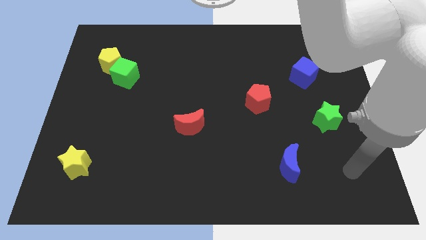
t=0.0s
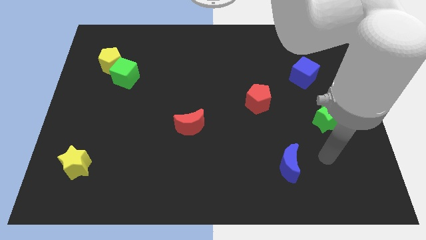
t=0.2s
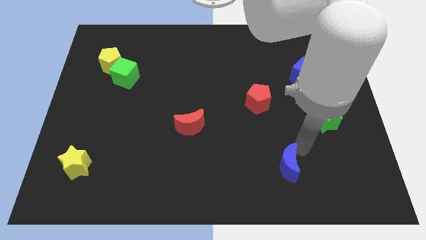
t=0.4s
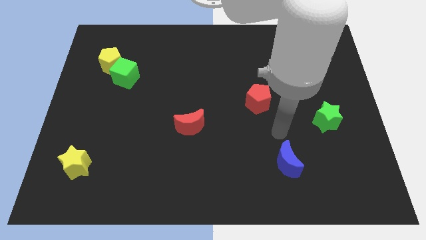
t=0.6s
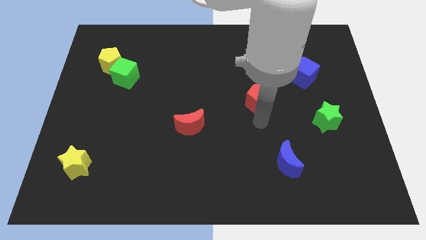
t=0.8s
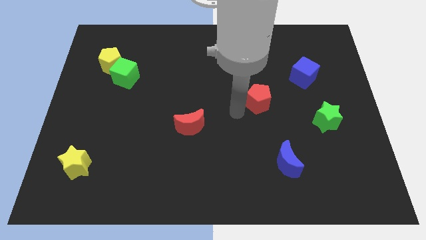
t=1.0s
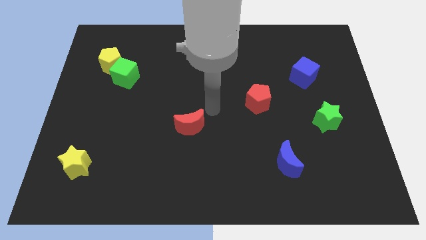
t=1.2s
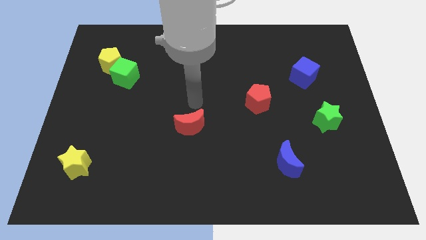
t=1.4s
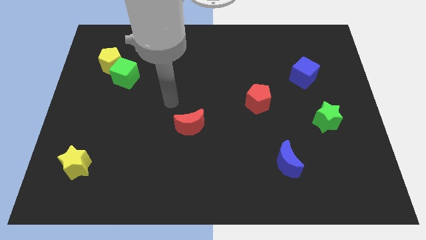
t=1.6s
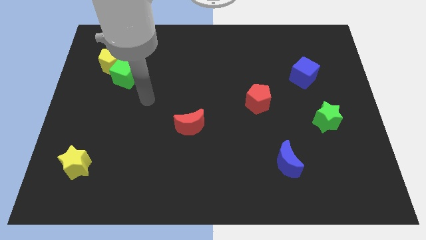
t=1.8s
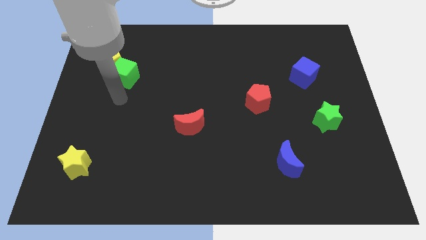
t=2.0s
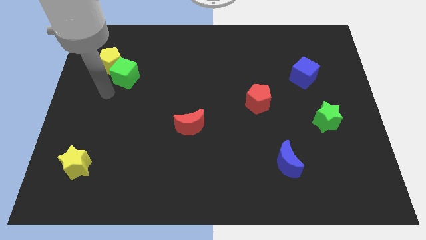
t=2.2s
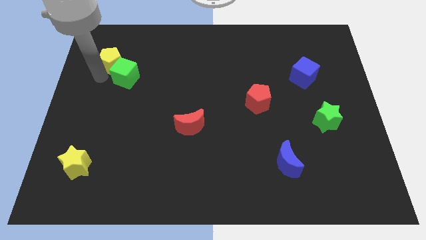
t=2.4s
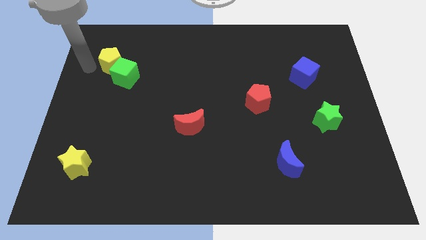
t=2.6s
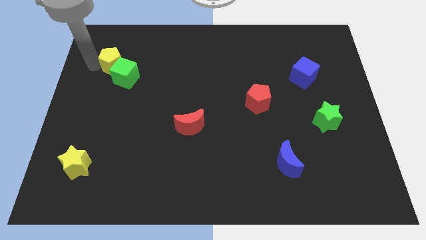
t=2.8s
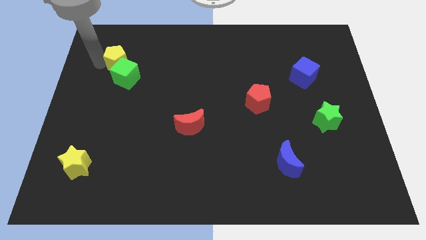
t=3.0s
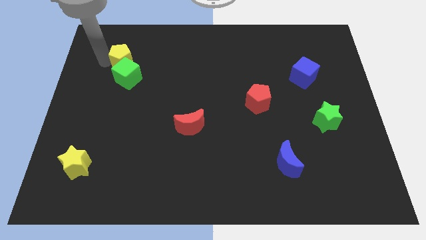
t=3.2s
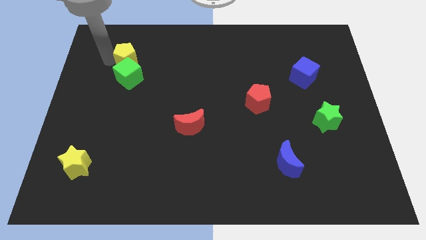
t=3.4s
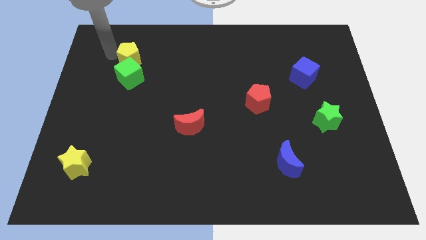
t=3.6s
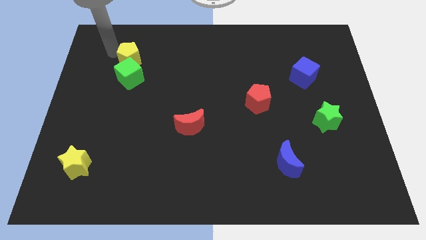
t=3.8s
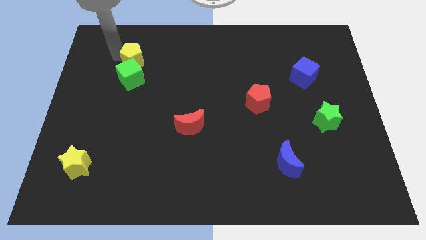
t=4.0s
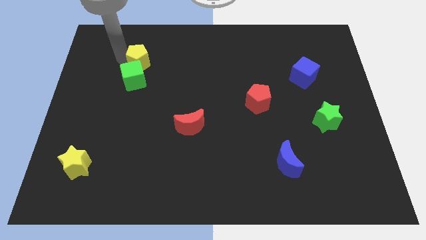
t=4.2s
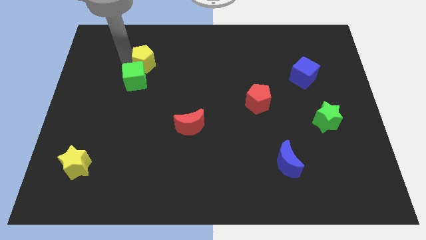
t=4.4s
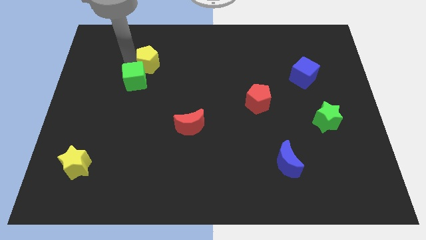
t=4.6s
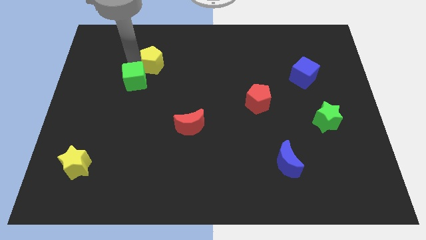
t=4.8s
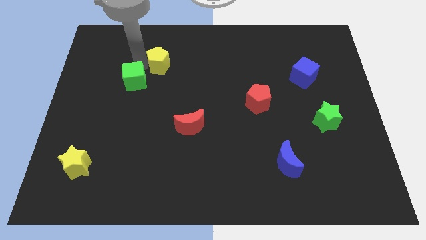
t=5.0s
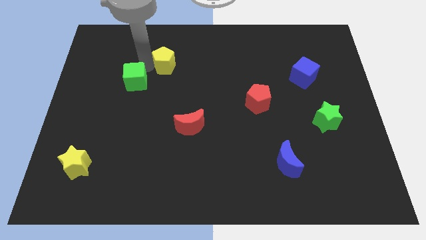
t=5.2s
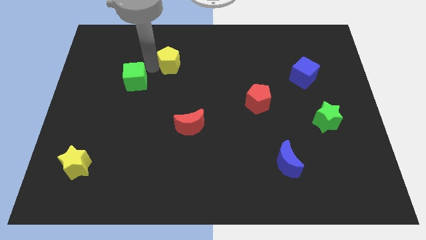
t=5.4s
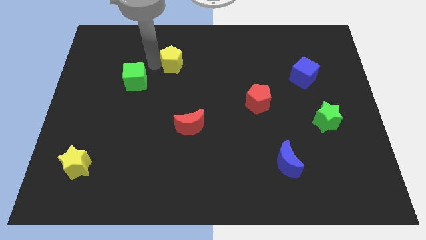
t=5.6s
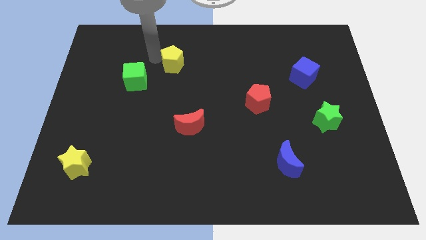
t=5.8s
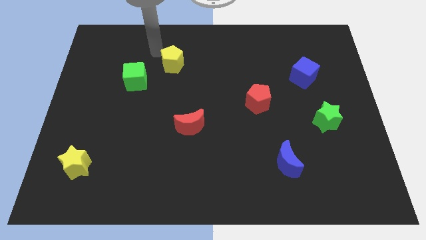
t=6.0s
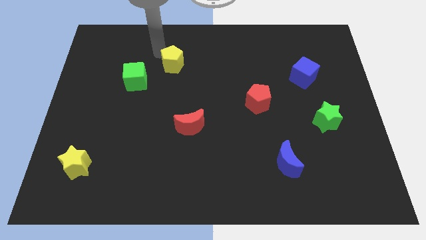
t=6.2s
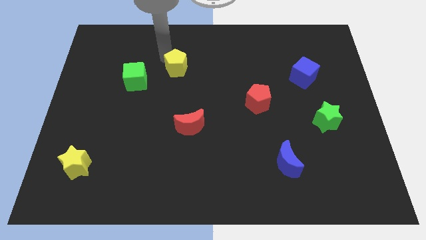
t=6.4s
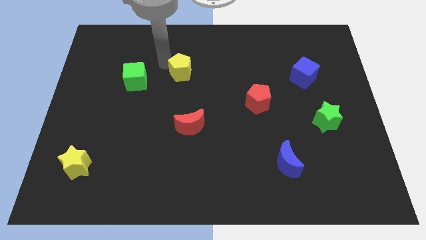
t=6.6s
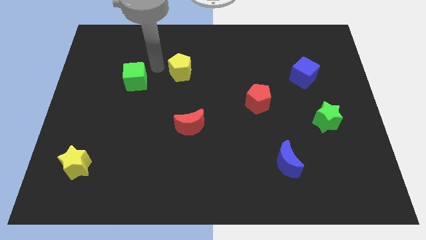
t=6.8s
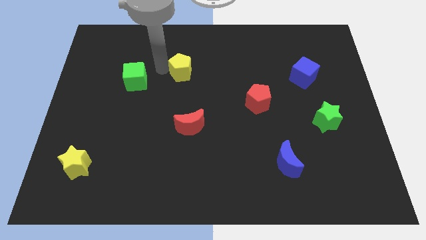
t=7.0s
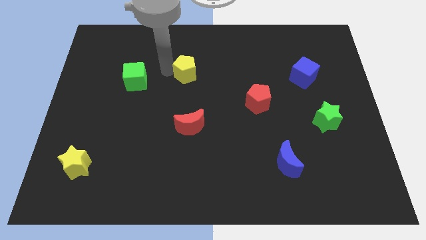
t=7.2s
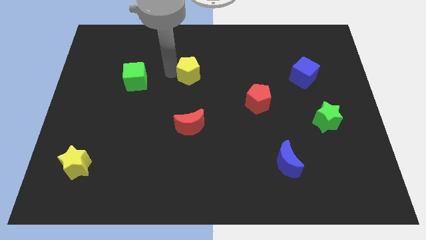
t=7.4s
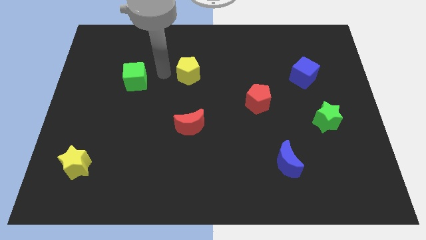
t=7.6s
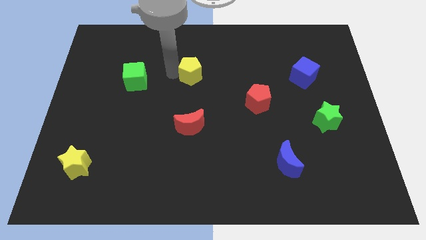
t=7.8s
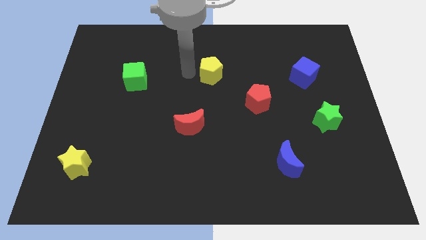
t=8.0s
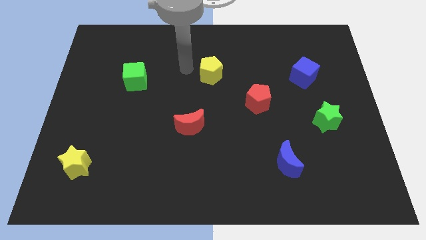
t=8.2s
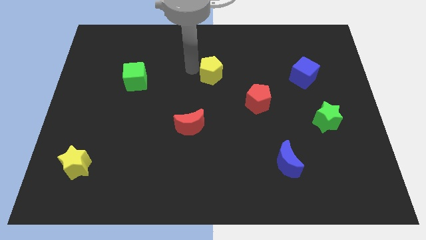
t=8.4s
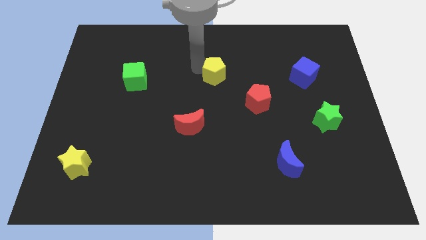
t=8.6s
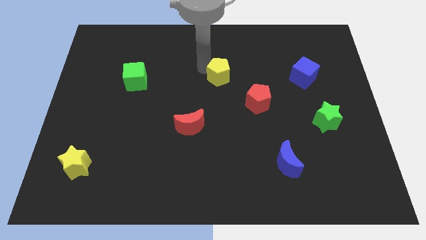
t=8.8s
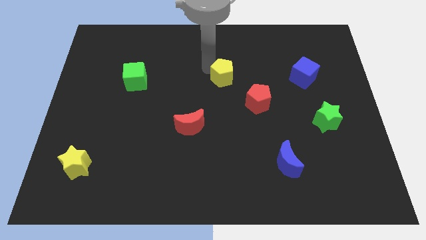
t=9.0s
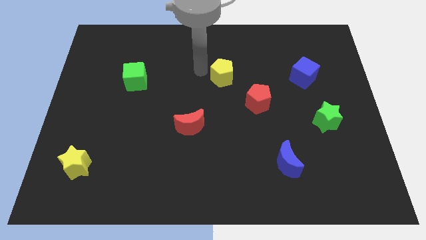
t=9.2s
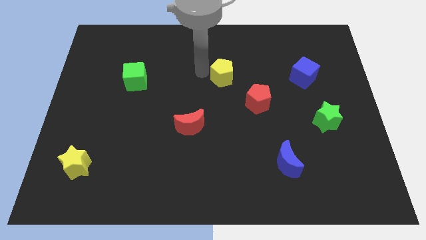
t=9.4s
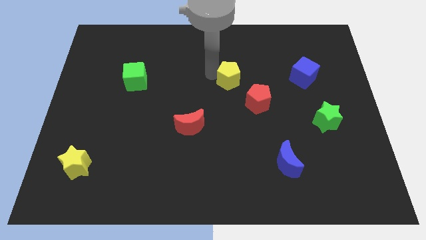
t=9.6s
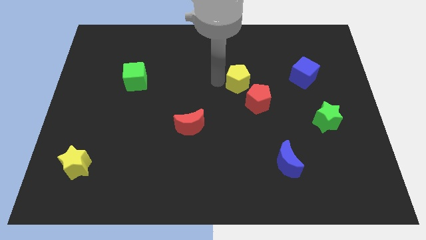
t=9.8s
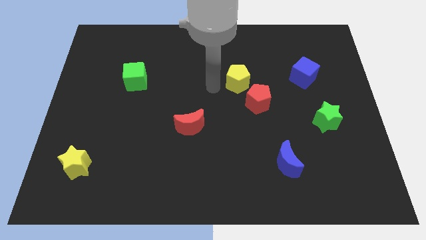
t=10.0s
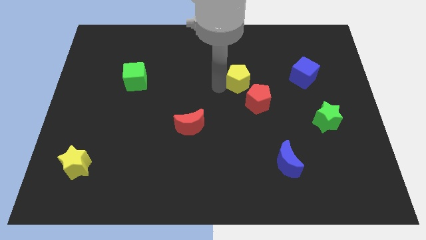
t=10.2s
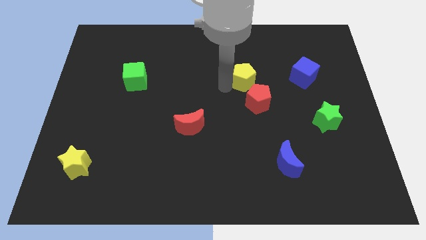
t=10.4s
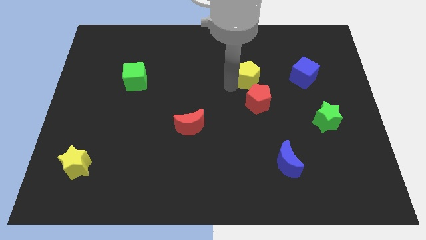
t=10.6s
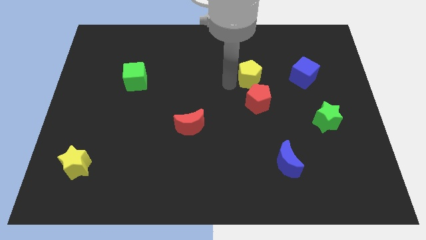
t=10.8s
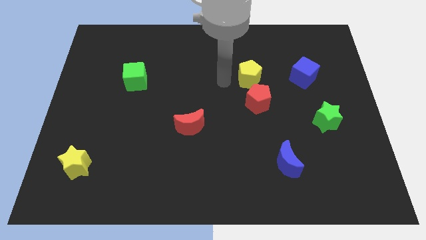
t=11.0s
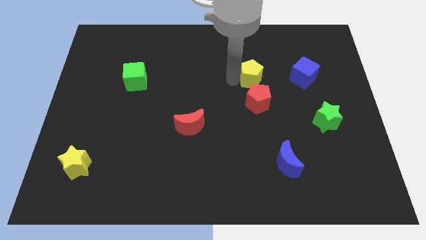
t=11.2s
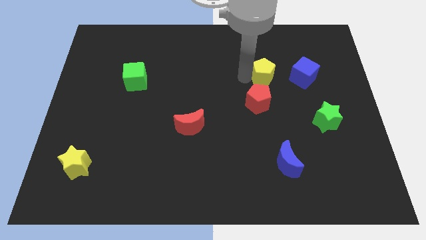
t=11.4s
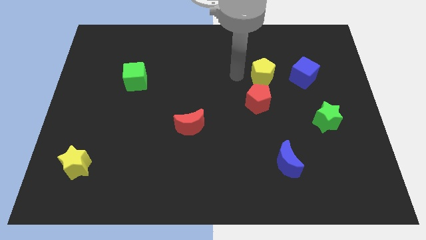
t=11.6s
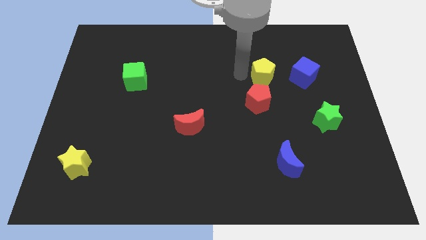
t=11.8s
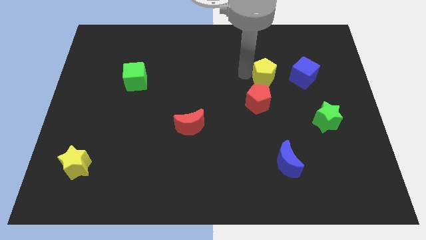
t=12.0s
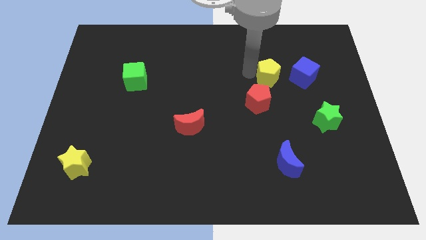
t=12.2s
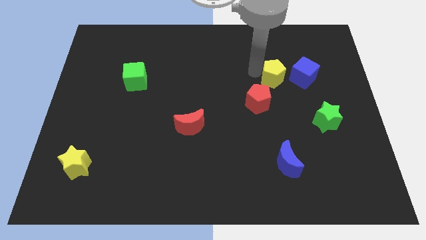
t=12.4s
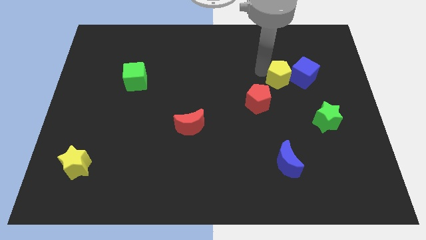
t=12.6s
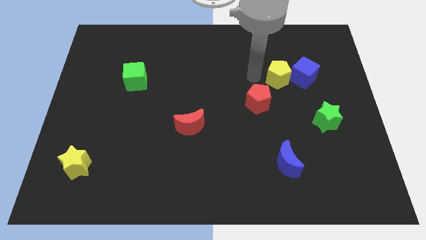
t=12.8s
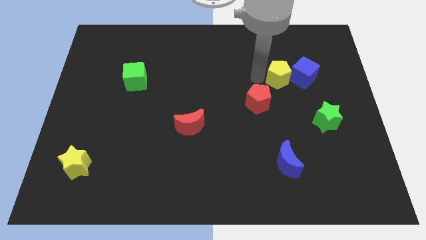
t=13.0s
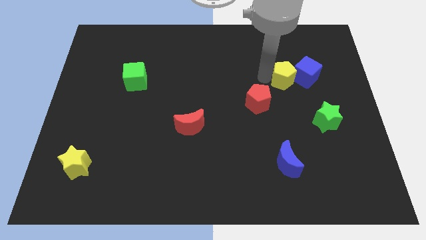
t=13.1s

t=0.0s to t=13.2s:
slide the yellow pentagon close to the blue cube

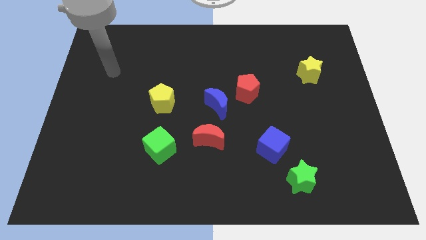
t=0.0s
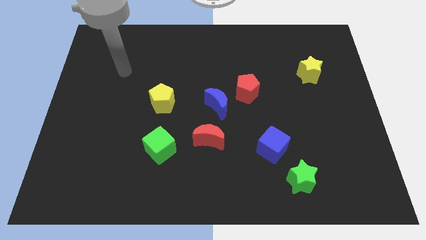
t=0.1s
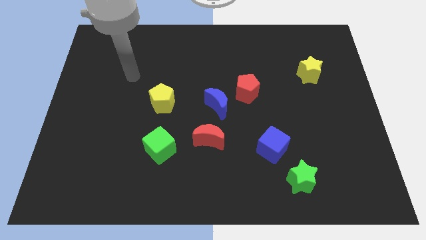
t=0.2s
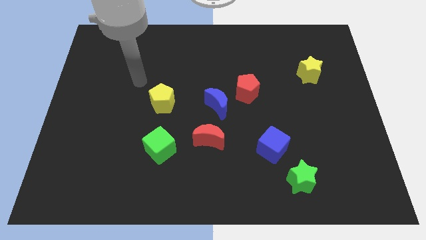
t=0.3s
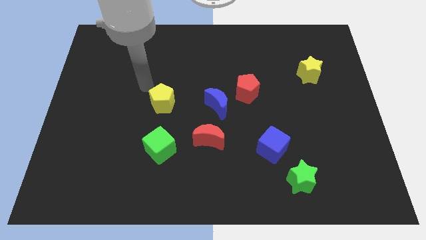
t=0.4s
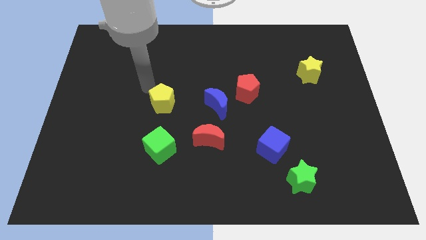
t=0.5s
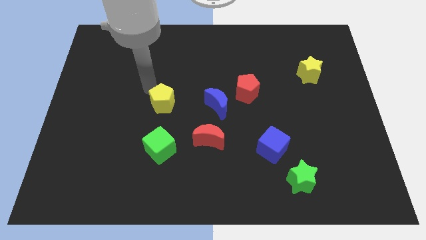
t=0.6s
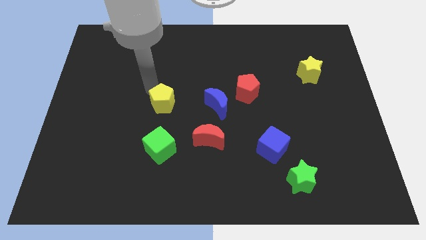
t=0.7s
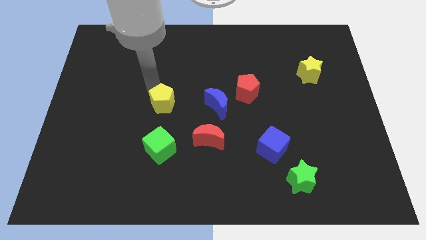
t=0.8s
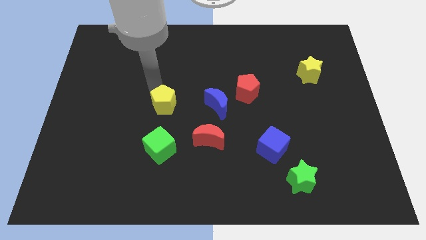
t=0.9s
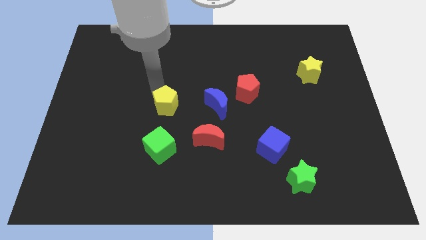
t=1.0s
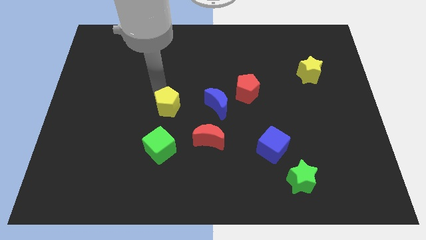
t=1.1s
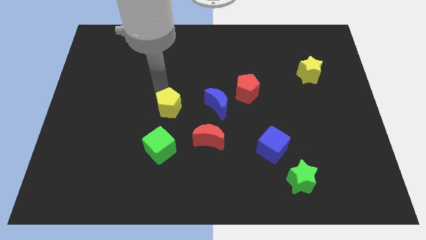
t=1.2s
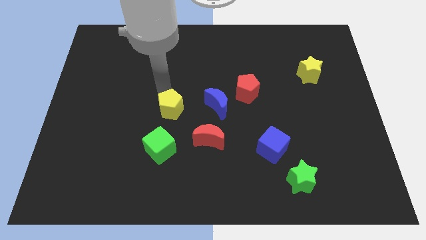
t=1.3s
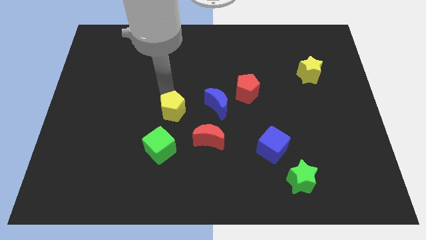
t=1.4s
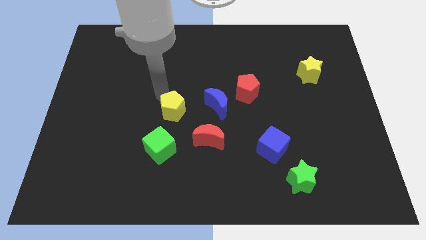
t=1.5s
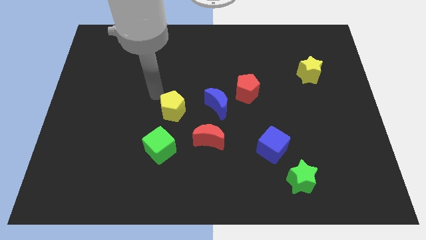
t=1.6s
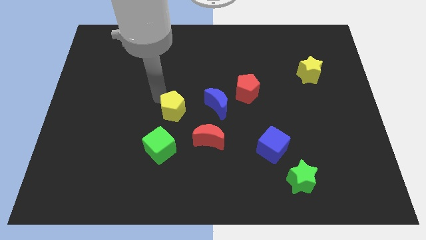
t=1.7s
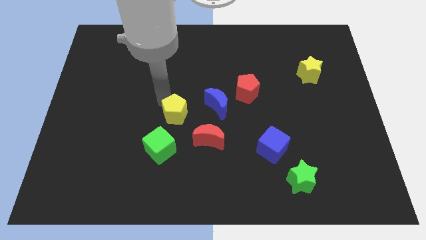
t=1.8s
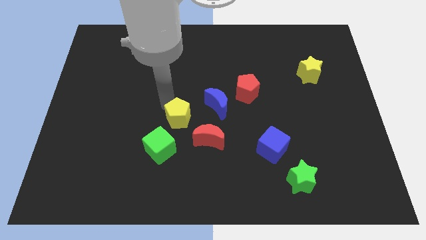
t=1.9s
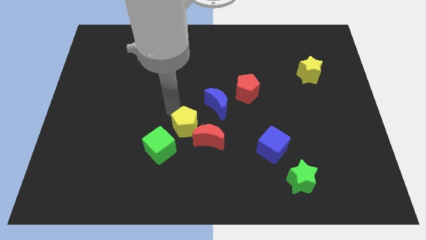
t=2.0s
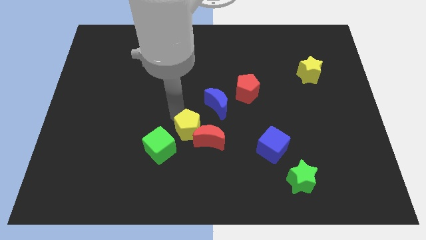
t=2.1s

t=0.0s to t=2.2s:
move the yellow pentagon towards the red moon
